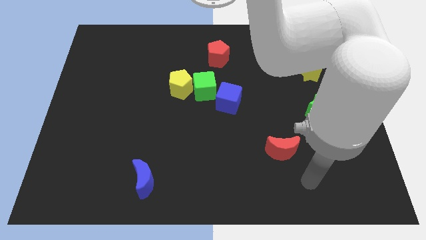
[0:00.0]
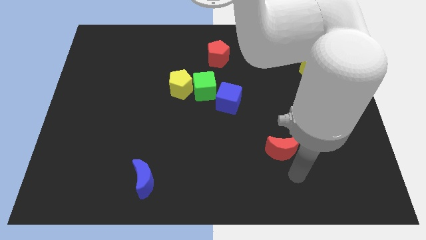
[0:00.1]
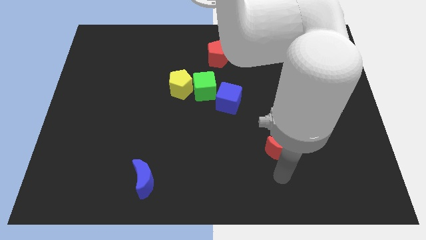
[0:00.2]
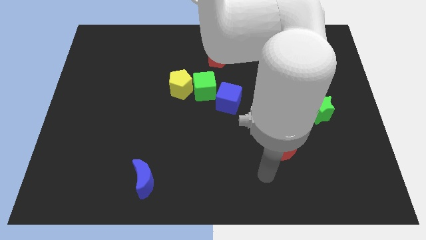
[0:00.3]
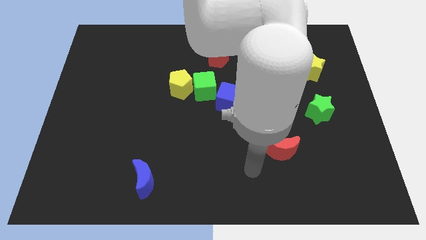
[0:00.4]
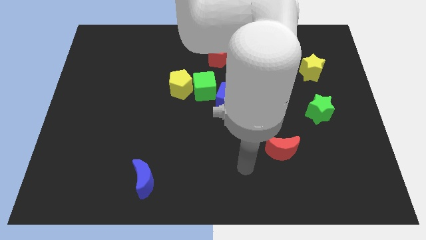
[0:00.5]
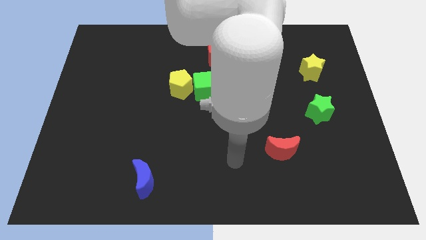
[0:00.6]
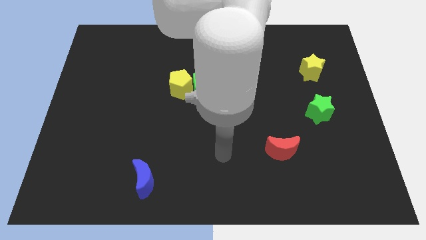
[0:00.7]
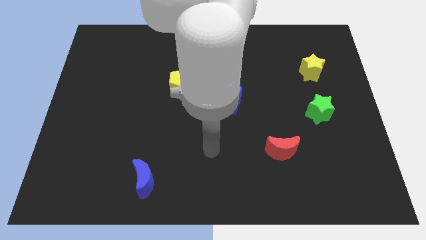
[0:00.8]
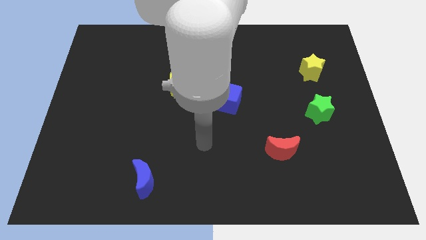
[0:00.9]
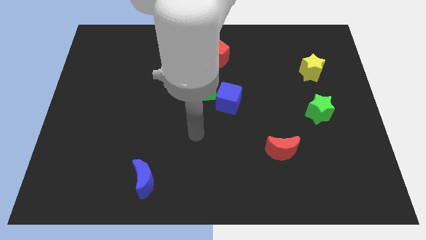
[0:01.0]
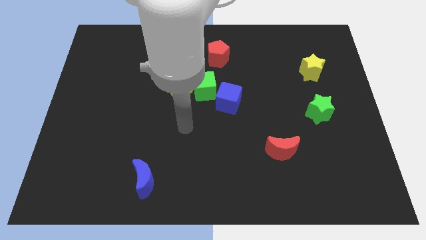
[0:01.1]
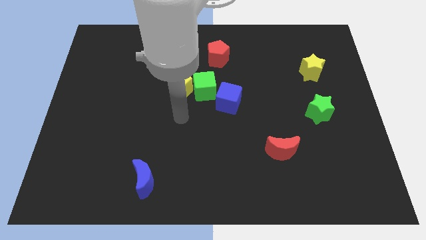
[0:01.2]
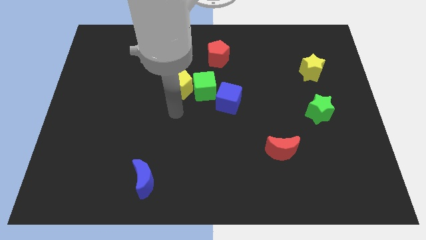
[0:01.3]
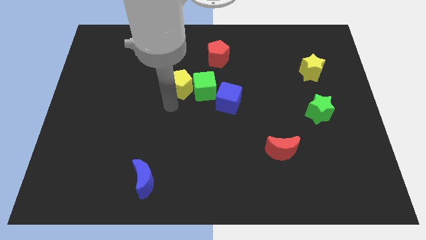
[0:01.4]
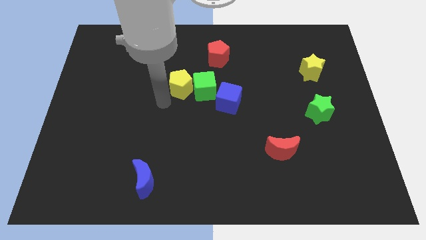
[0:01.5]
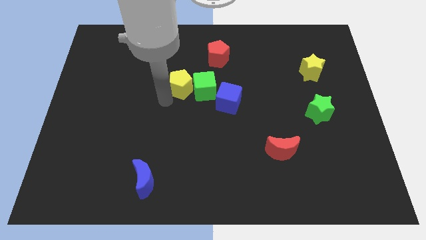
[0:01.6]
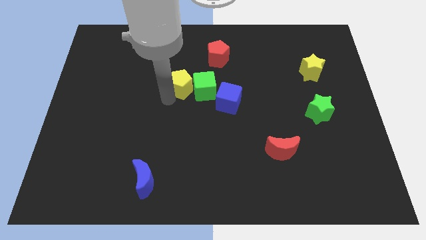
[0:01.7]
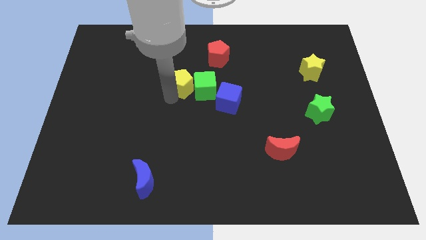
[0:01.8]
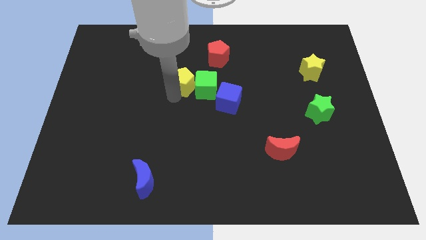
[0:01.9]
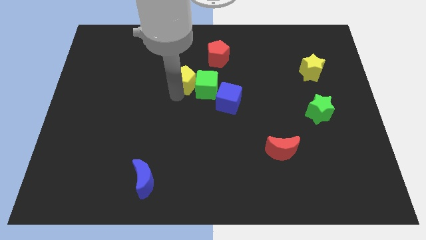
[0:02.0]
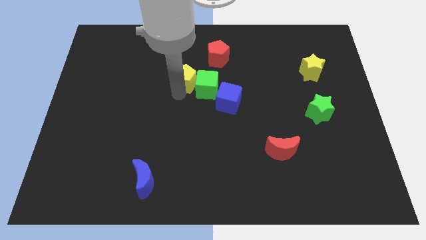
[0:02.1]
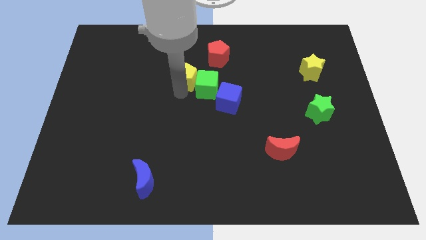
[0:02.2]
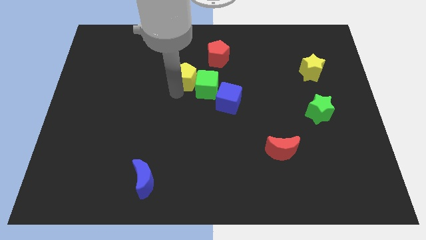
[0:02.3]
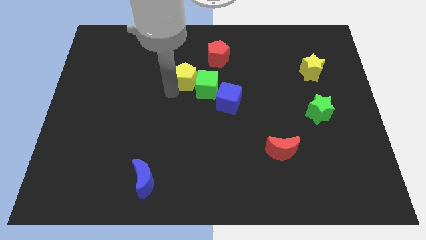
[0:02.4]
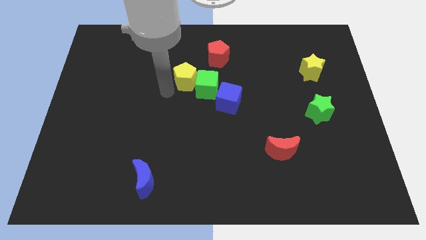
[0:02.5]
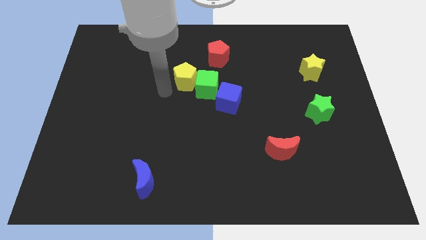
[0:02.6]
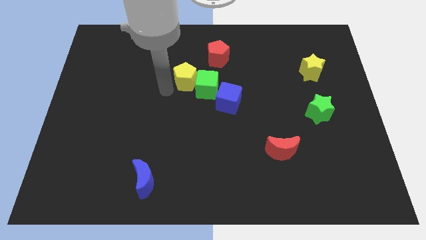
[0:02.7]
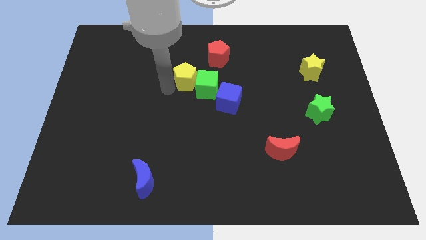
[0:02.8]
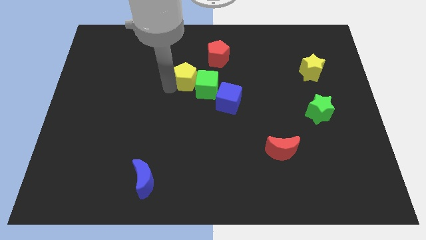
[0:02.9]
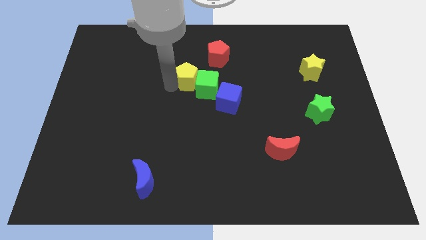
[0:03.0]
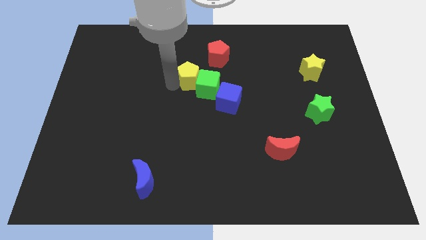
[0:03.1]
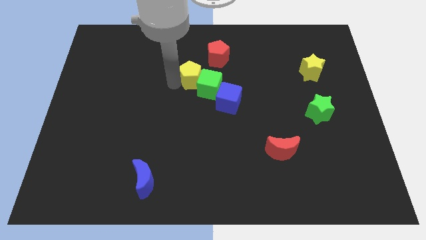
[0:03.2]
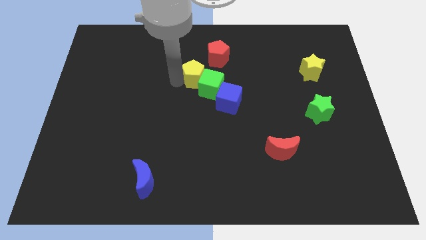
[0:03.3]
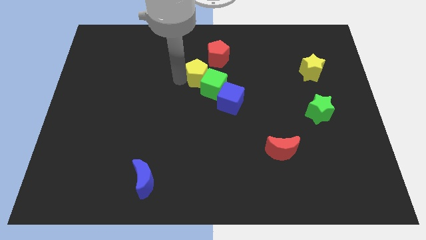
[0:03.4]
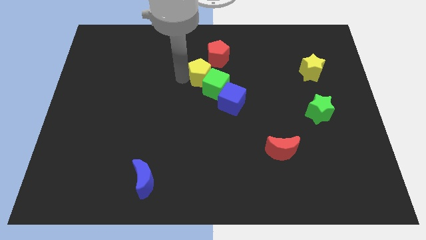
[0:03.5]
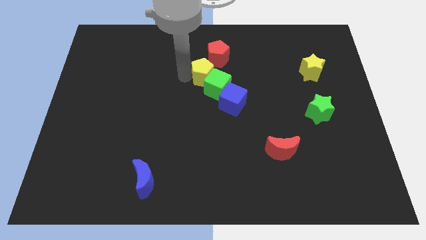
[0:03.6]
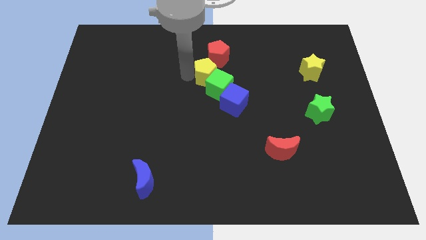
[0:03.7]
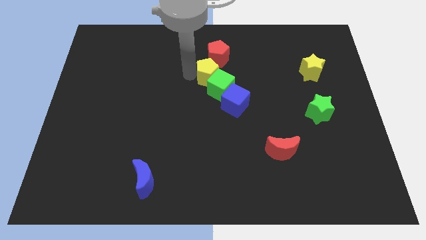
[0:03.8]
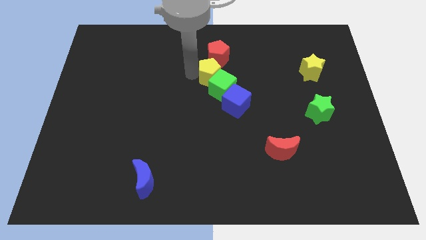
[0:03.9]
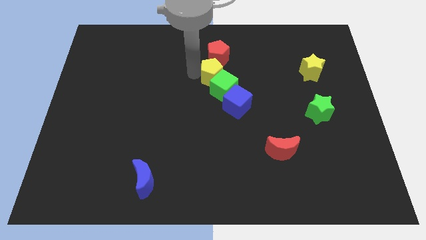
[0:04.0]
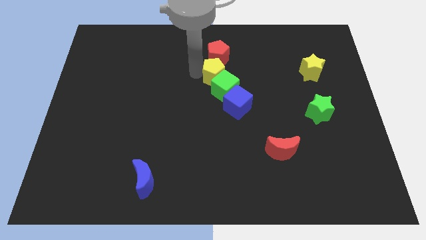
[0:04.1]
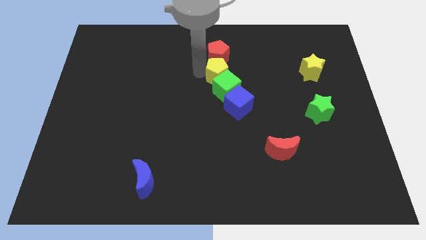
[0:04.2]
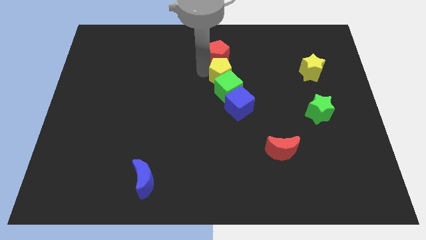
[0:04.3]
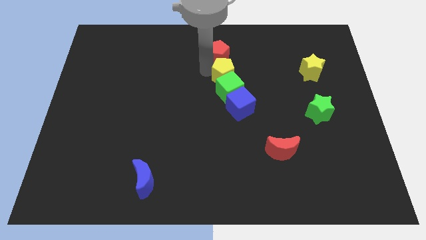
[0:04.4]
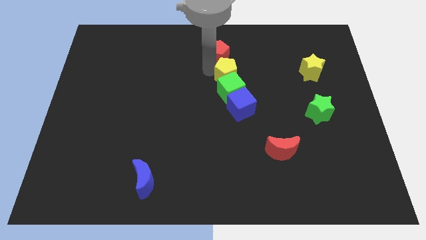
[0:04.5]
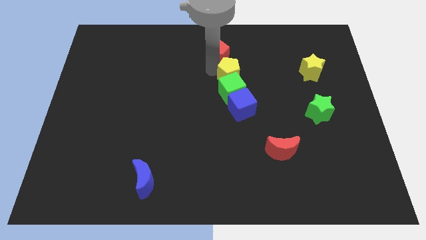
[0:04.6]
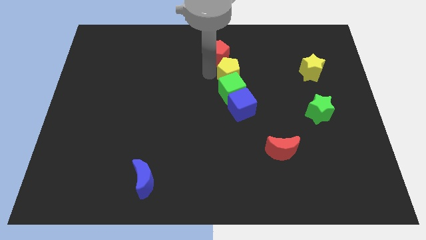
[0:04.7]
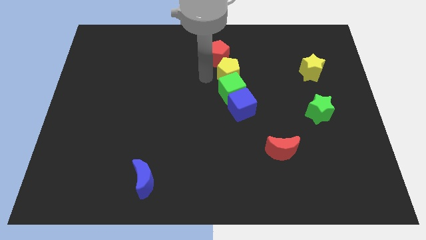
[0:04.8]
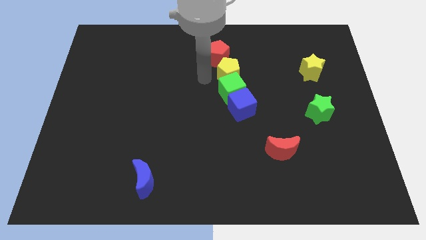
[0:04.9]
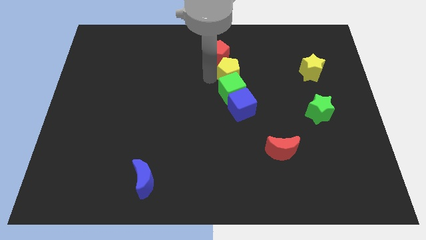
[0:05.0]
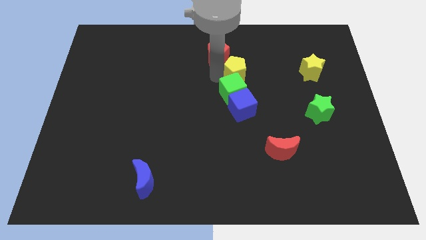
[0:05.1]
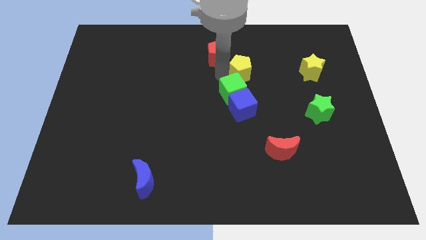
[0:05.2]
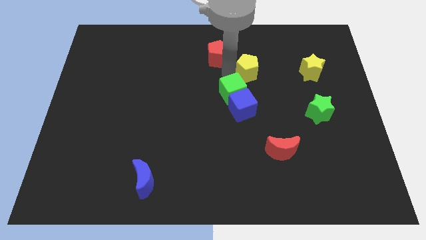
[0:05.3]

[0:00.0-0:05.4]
move the yellow pentagon just left of the yellow star

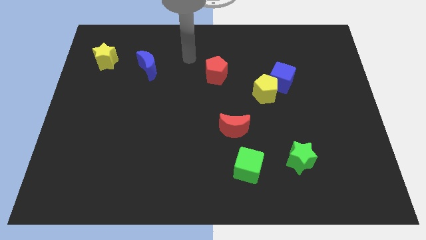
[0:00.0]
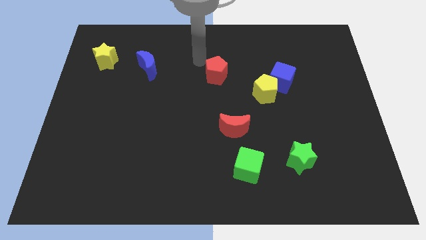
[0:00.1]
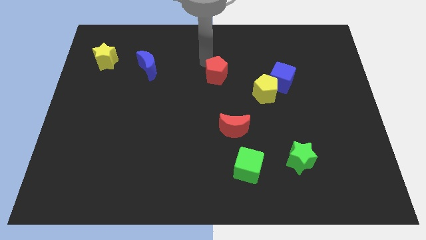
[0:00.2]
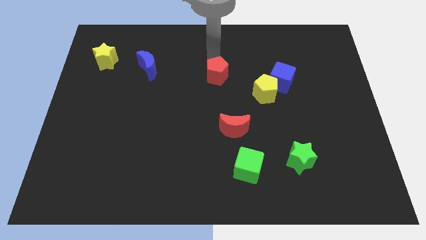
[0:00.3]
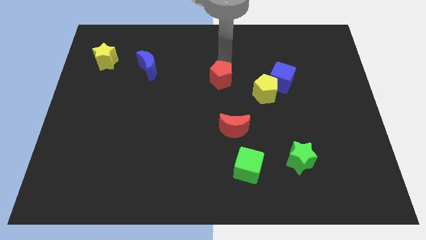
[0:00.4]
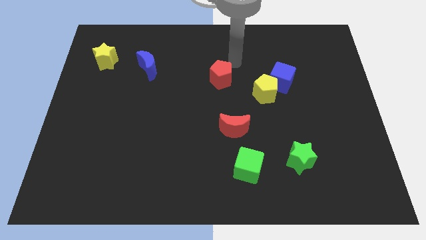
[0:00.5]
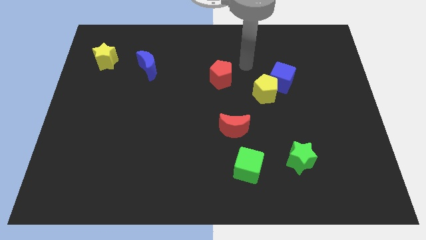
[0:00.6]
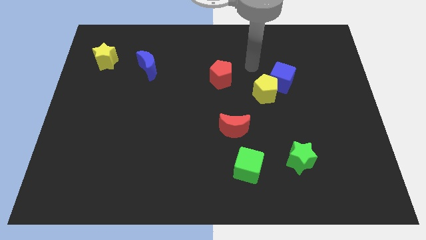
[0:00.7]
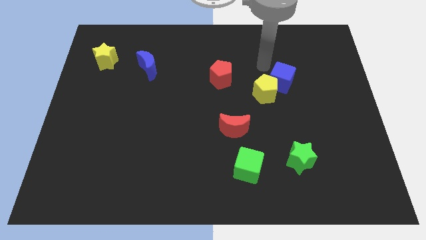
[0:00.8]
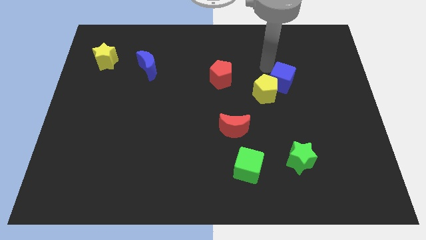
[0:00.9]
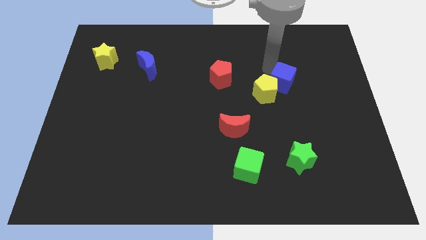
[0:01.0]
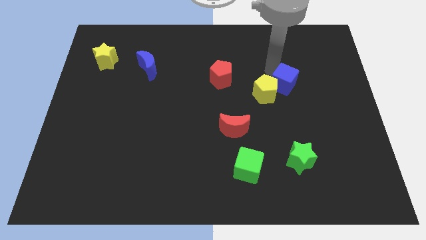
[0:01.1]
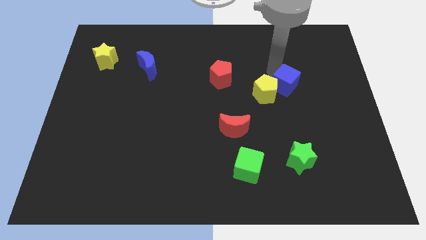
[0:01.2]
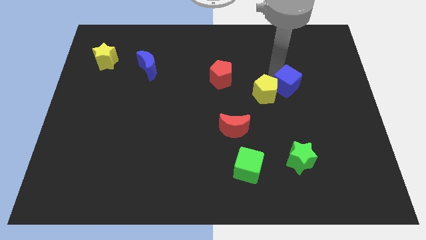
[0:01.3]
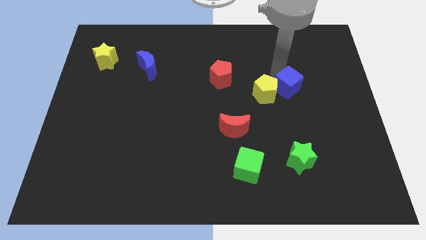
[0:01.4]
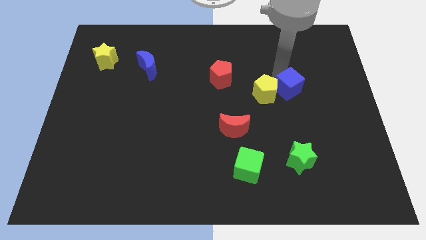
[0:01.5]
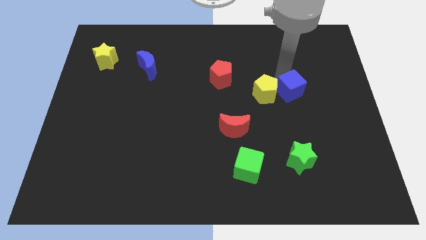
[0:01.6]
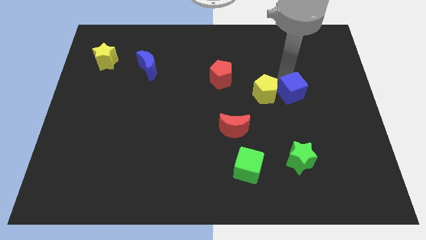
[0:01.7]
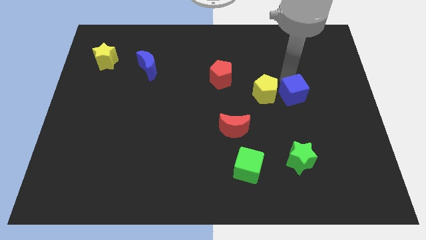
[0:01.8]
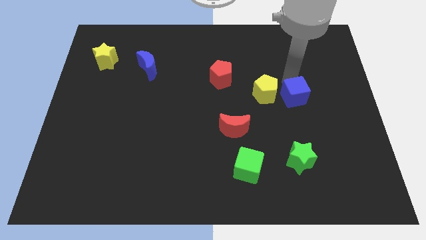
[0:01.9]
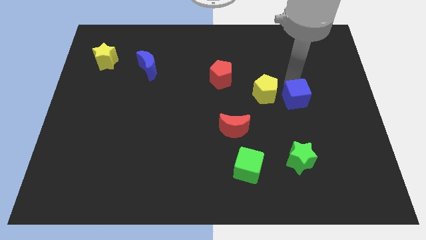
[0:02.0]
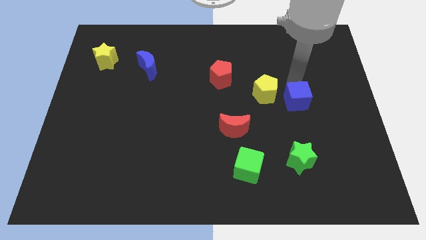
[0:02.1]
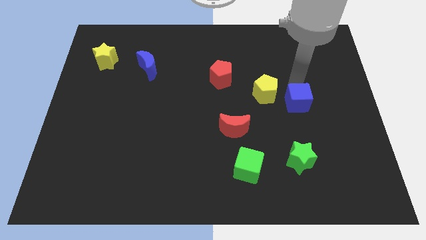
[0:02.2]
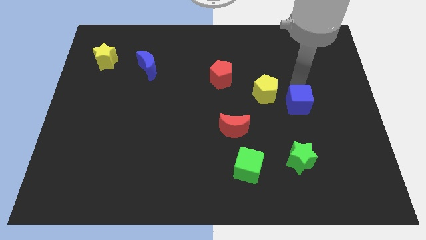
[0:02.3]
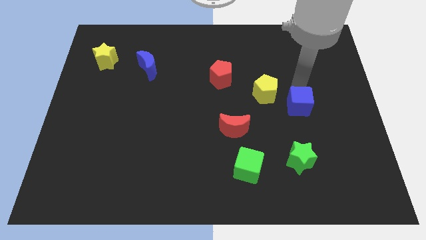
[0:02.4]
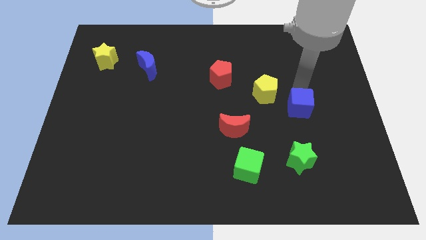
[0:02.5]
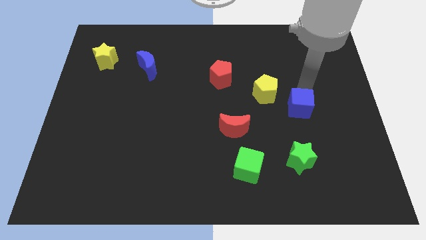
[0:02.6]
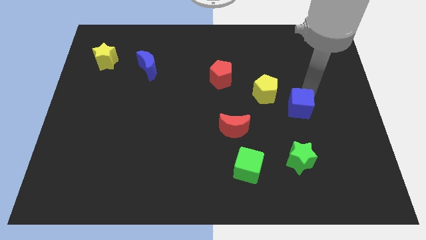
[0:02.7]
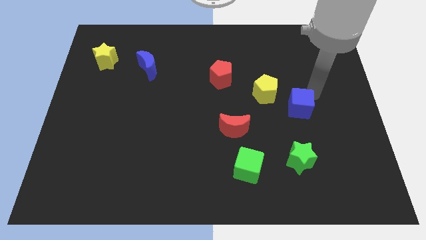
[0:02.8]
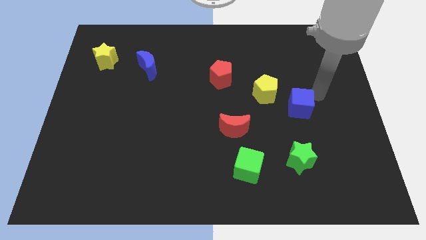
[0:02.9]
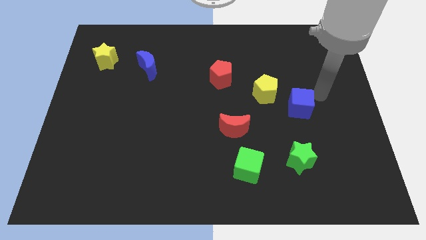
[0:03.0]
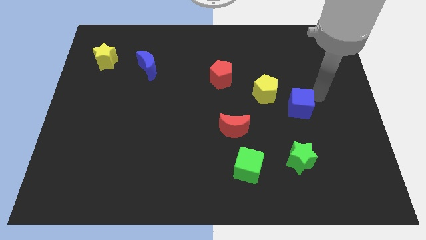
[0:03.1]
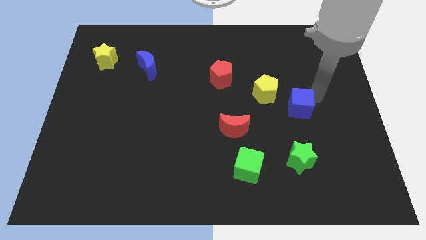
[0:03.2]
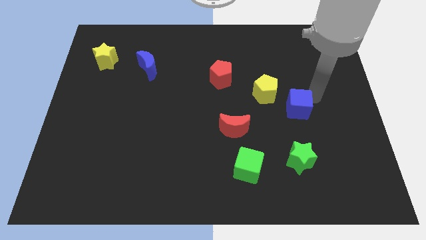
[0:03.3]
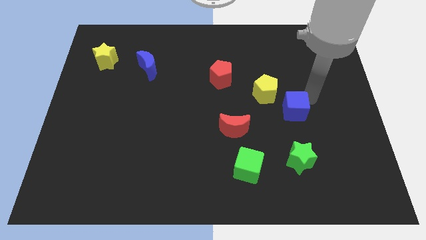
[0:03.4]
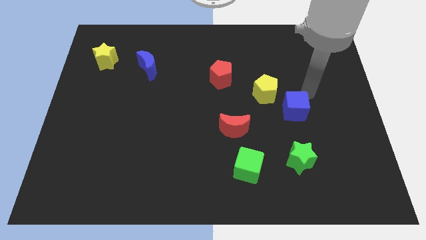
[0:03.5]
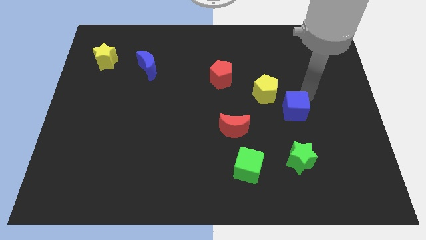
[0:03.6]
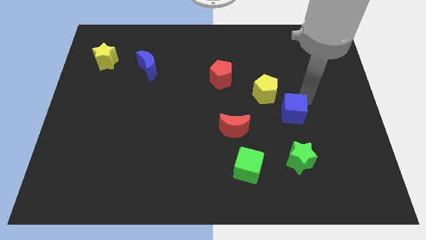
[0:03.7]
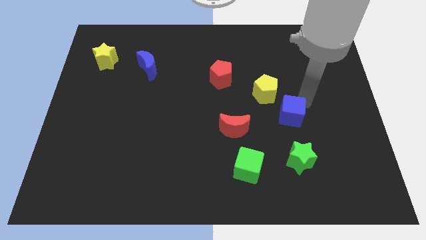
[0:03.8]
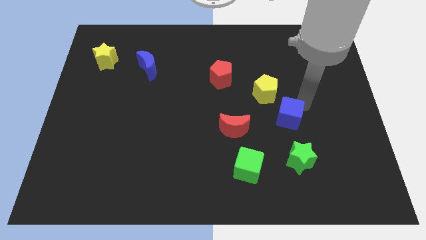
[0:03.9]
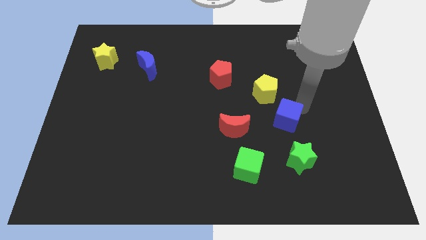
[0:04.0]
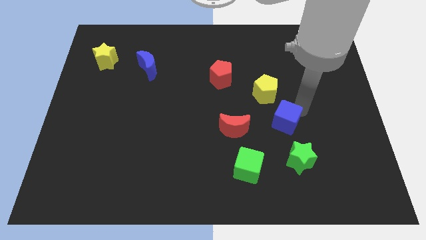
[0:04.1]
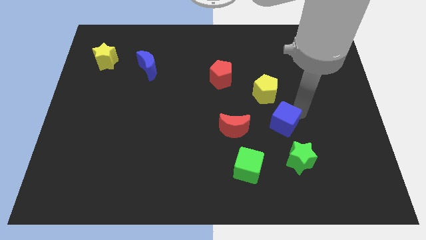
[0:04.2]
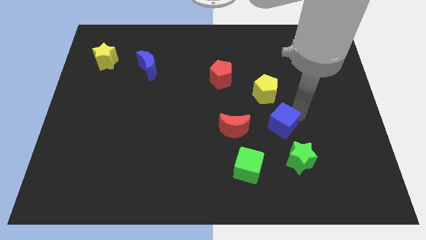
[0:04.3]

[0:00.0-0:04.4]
put the blue cube to the top left side of the green star
